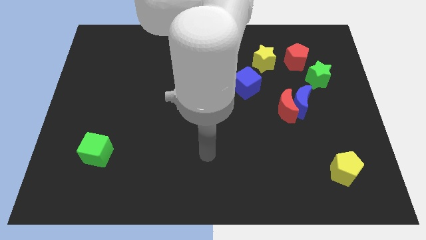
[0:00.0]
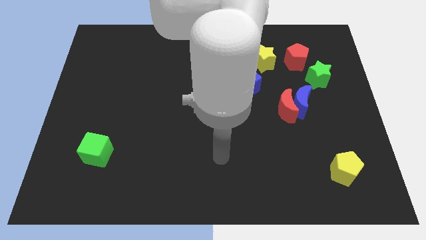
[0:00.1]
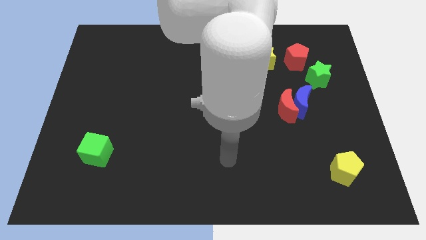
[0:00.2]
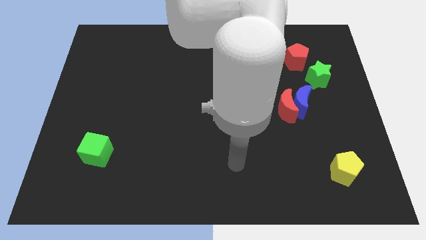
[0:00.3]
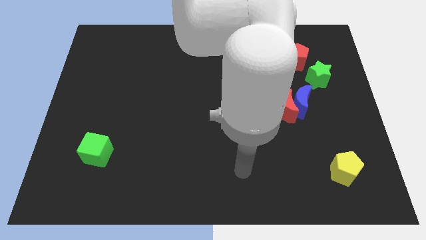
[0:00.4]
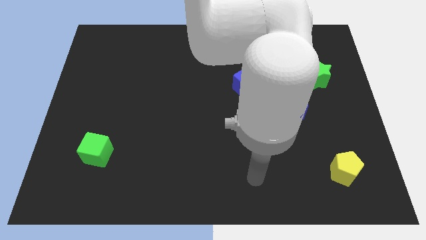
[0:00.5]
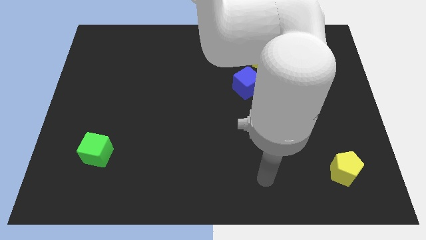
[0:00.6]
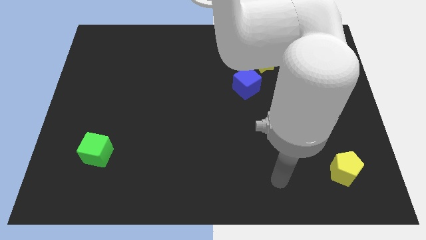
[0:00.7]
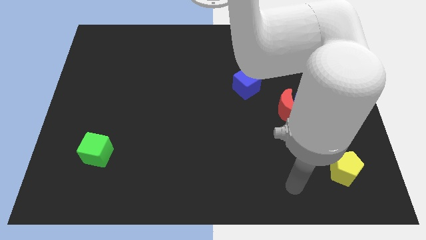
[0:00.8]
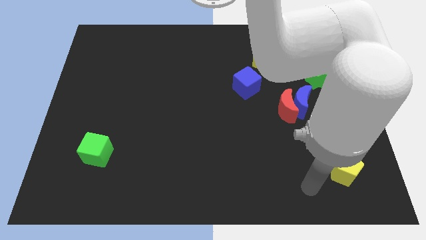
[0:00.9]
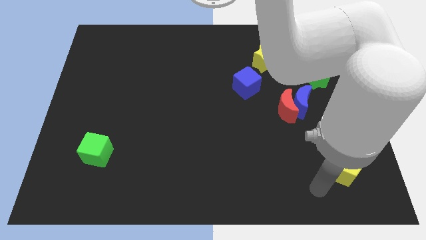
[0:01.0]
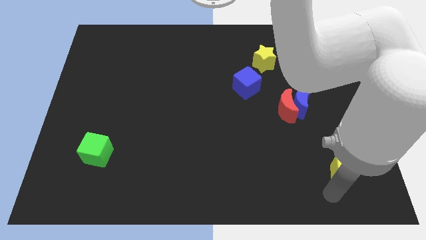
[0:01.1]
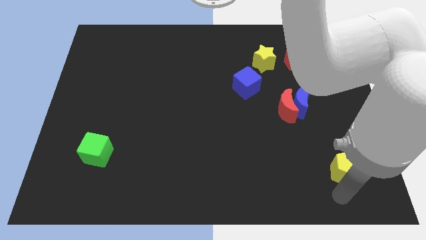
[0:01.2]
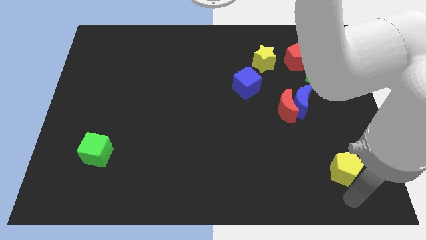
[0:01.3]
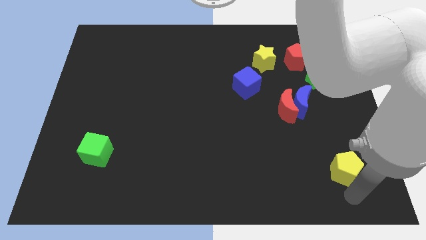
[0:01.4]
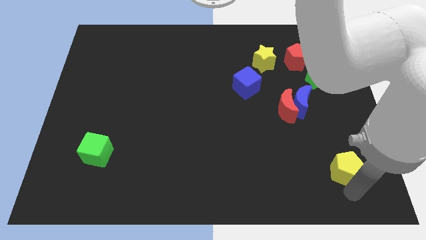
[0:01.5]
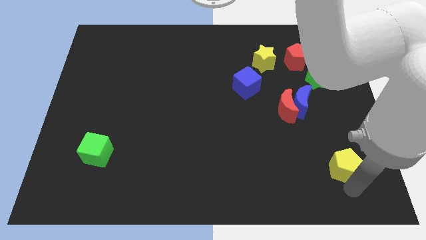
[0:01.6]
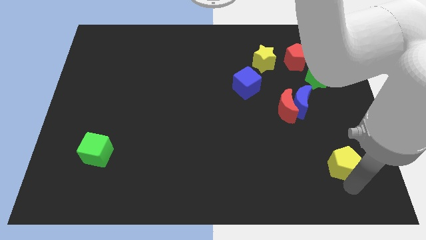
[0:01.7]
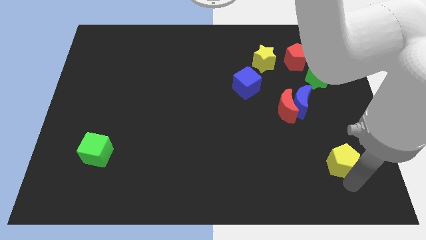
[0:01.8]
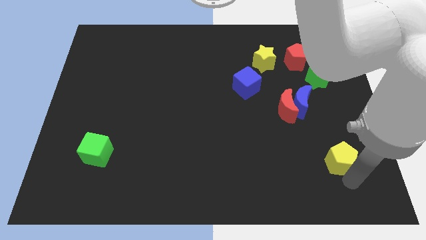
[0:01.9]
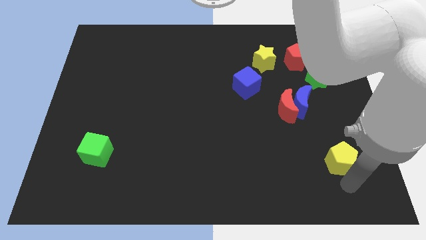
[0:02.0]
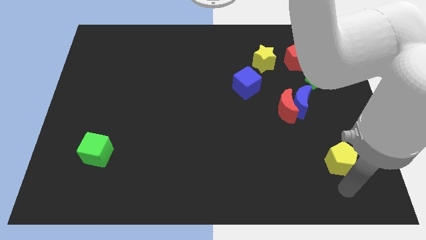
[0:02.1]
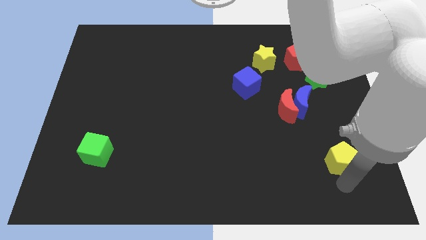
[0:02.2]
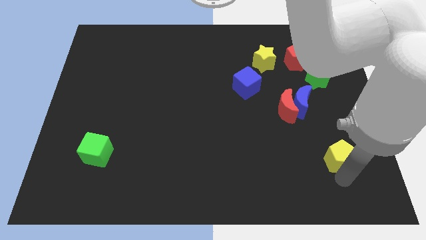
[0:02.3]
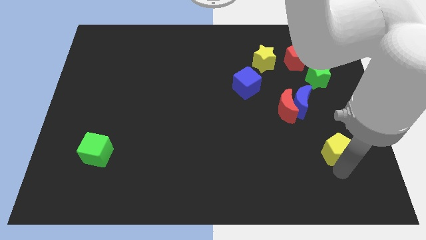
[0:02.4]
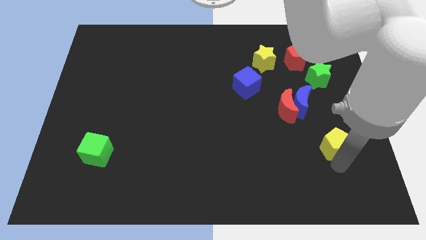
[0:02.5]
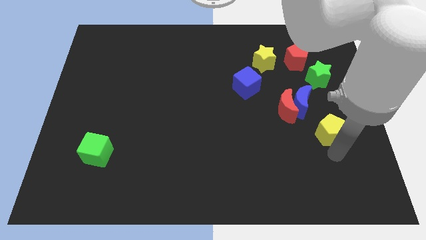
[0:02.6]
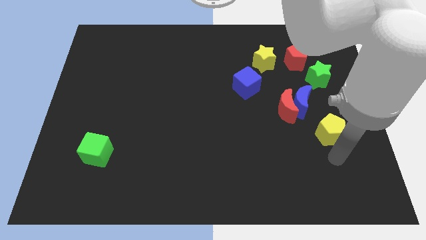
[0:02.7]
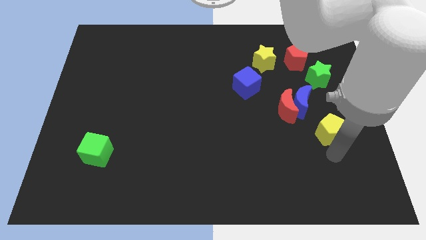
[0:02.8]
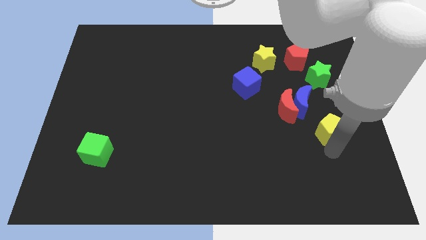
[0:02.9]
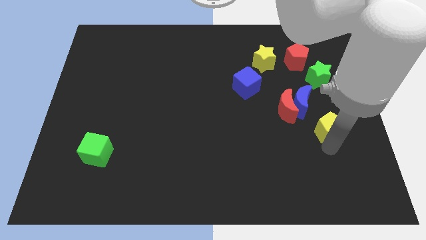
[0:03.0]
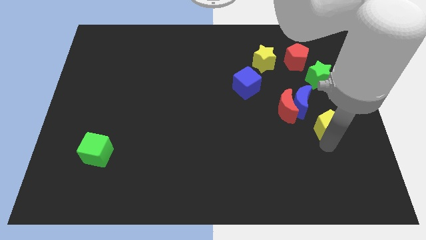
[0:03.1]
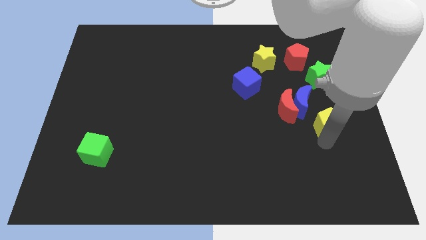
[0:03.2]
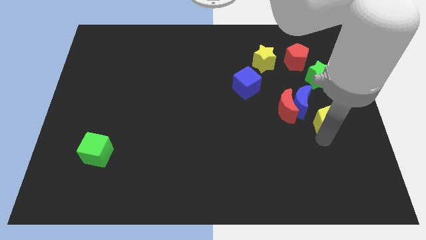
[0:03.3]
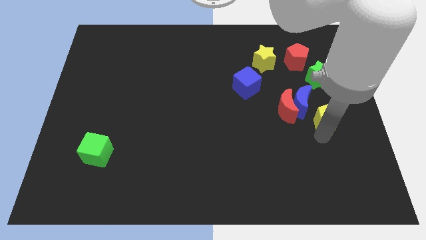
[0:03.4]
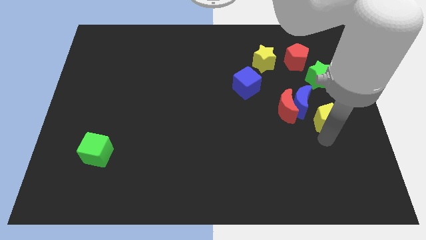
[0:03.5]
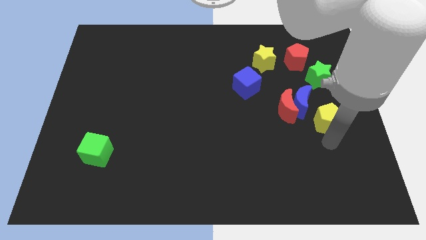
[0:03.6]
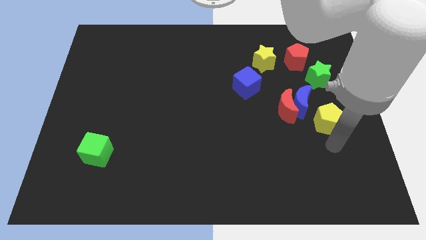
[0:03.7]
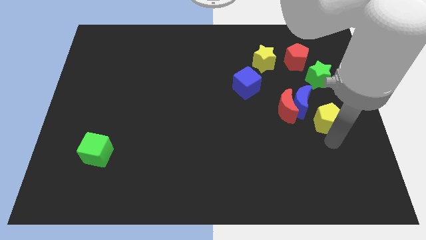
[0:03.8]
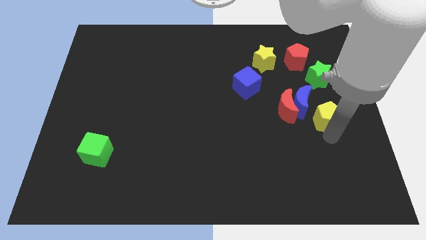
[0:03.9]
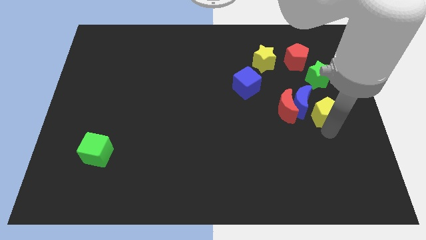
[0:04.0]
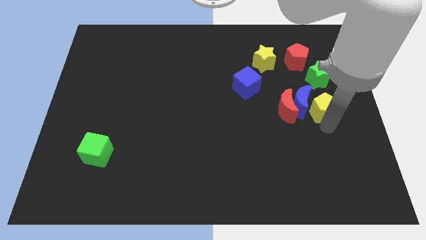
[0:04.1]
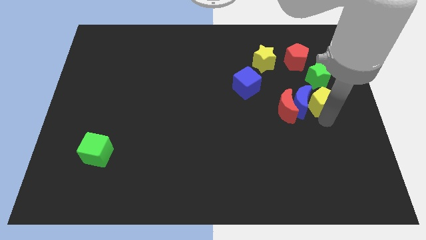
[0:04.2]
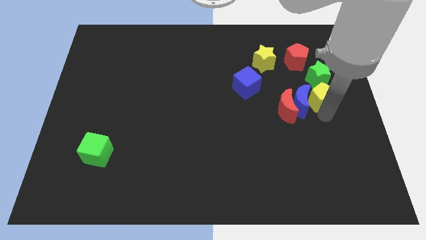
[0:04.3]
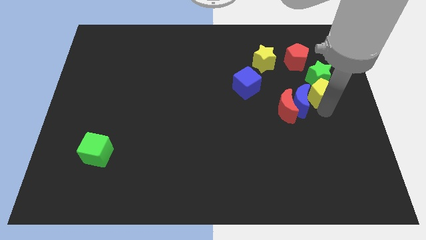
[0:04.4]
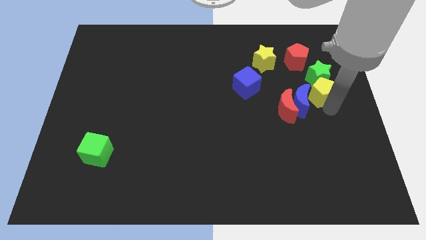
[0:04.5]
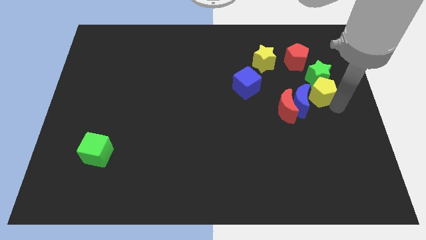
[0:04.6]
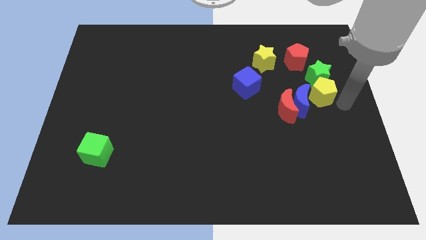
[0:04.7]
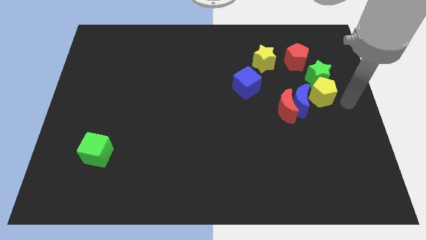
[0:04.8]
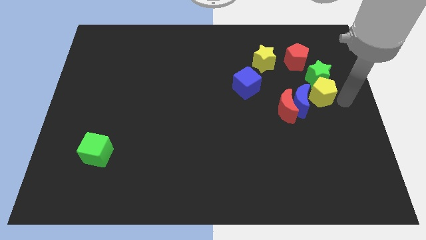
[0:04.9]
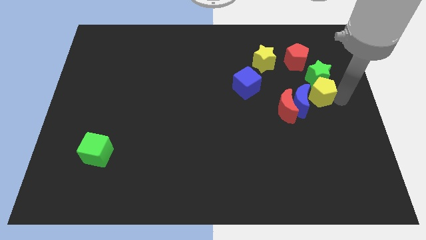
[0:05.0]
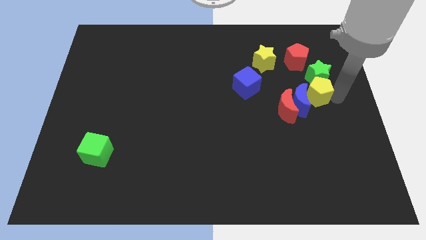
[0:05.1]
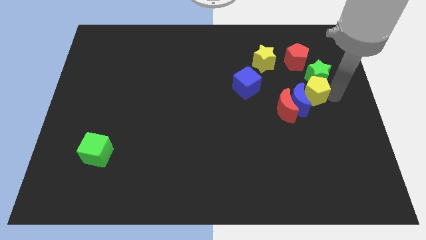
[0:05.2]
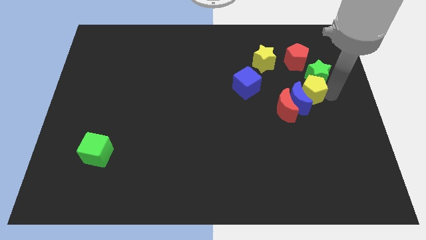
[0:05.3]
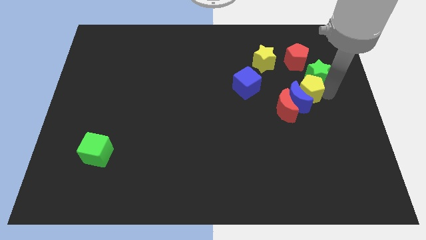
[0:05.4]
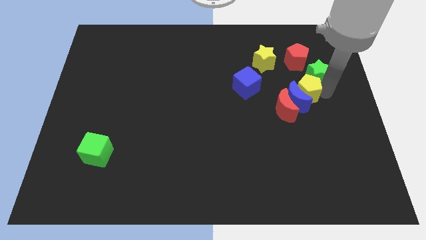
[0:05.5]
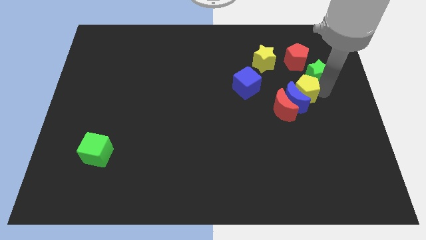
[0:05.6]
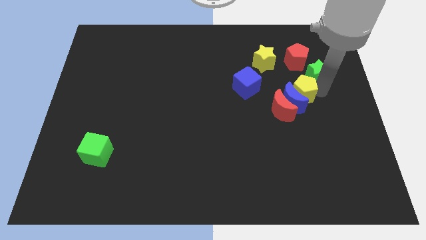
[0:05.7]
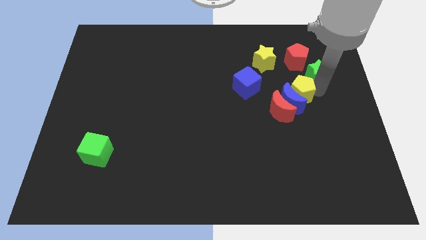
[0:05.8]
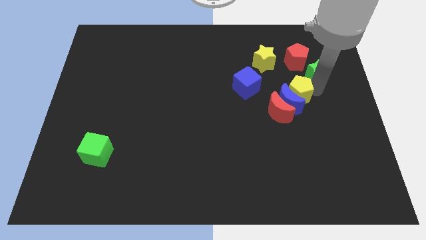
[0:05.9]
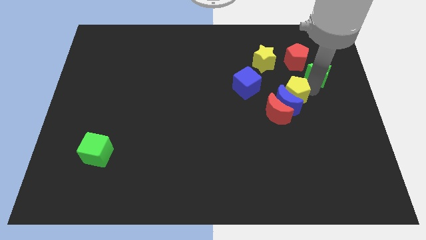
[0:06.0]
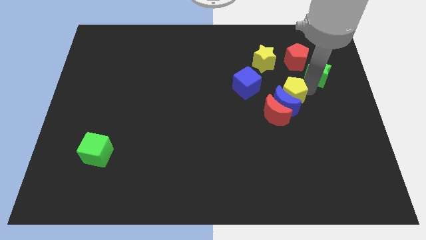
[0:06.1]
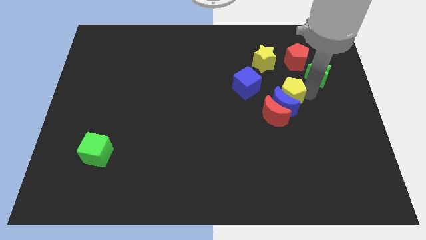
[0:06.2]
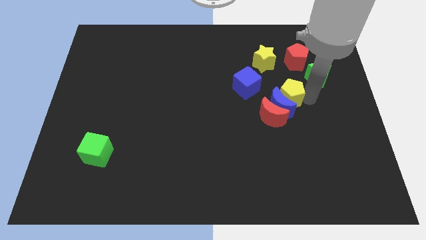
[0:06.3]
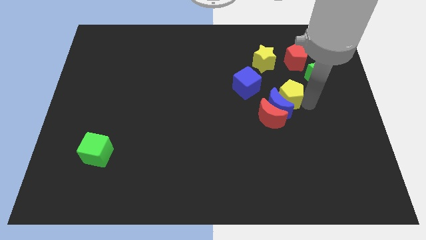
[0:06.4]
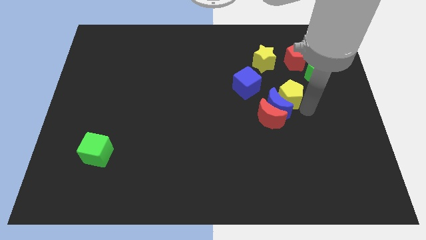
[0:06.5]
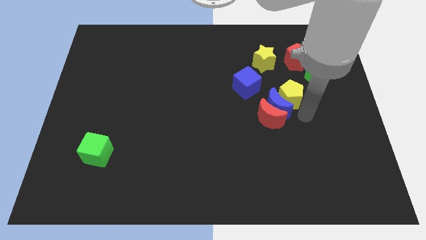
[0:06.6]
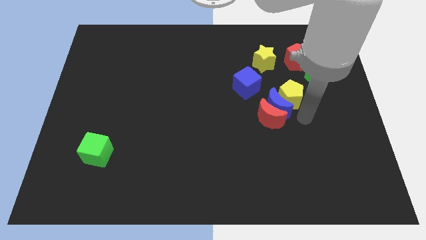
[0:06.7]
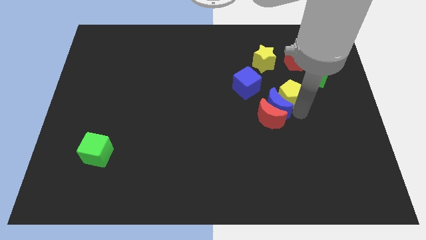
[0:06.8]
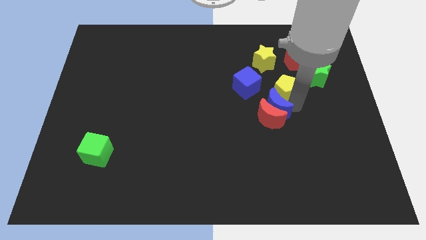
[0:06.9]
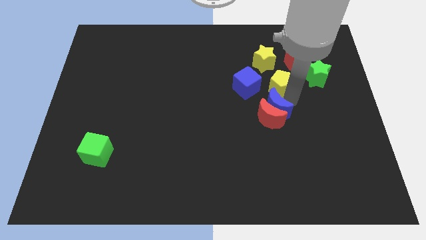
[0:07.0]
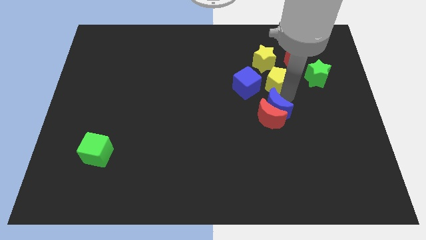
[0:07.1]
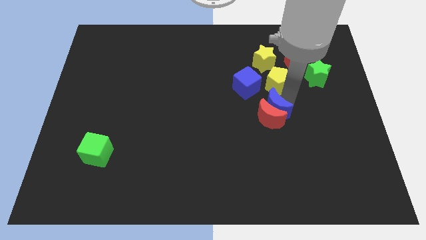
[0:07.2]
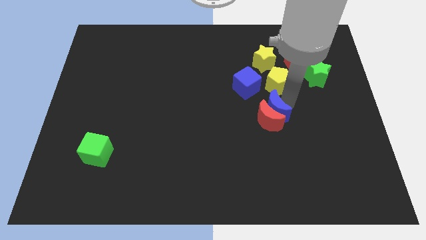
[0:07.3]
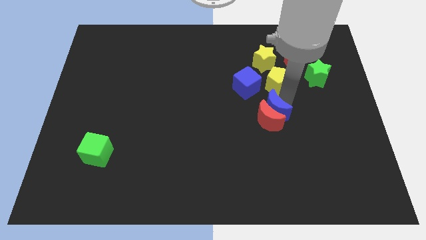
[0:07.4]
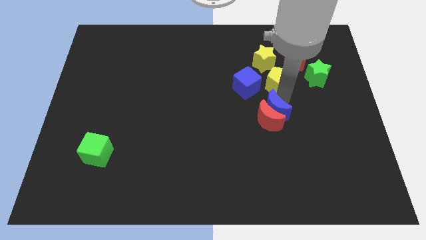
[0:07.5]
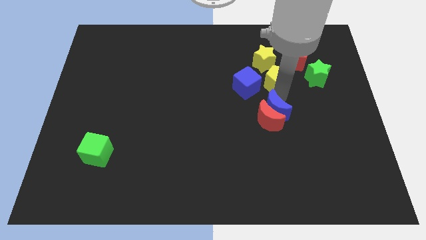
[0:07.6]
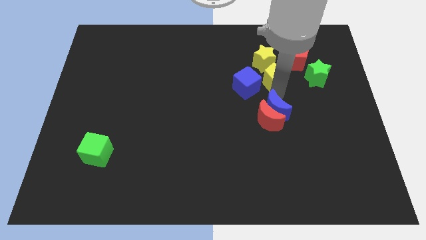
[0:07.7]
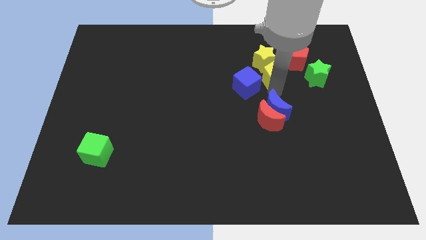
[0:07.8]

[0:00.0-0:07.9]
slide the yellow pentagon to the yellow star
